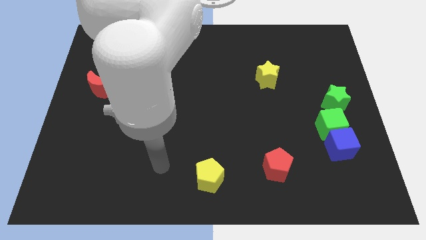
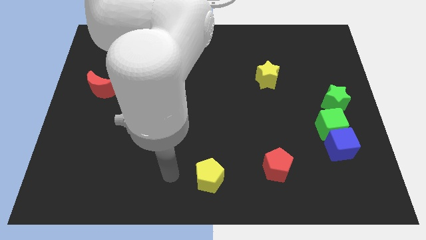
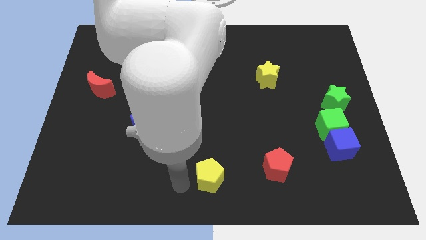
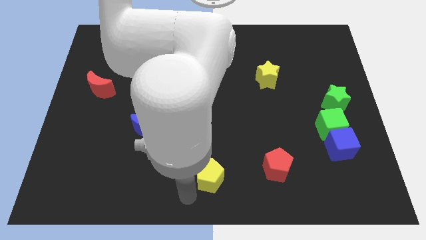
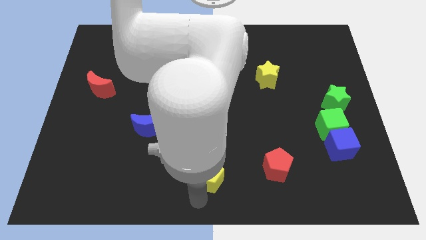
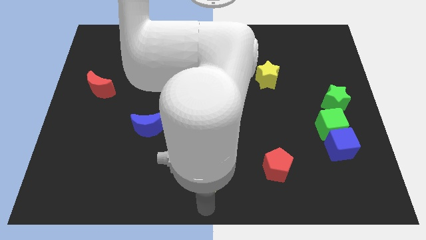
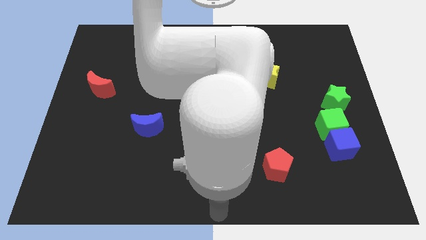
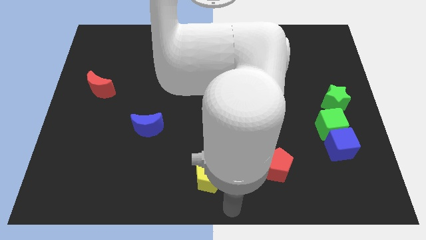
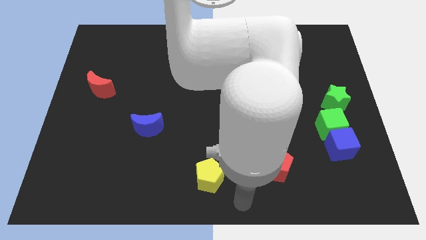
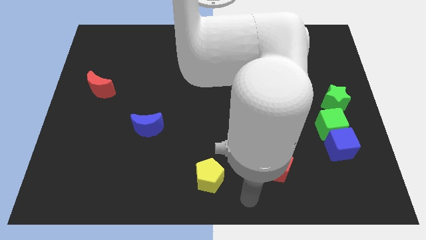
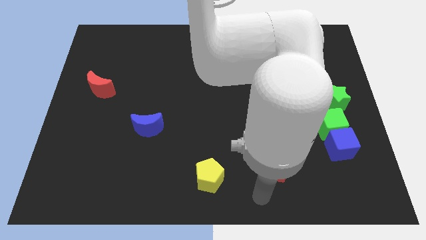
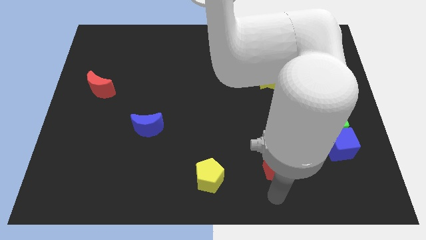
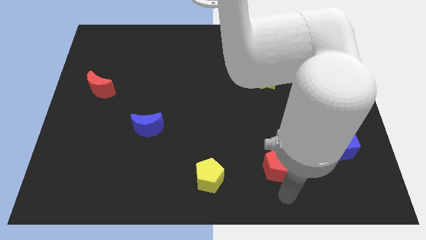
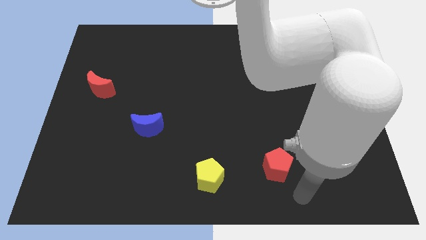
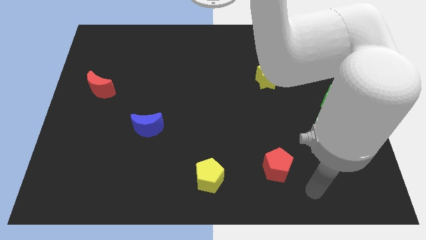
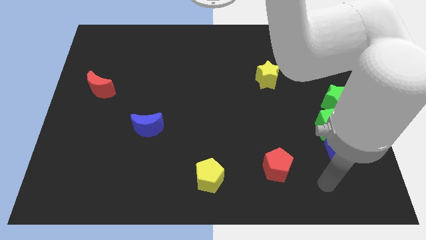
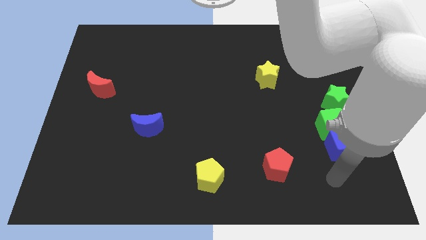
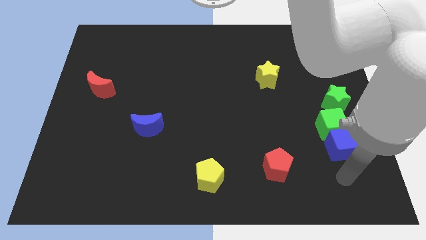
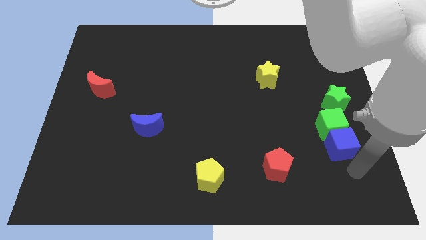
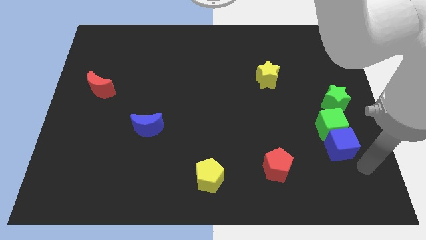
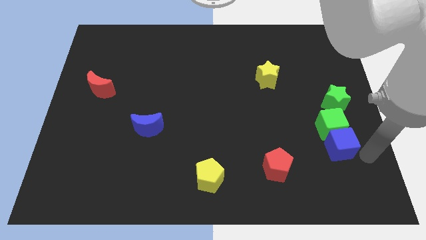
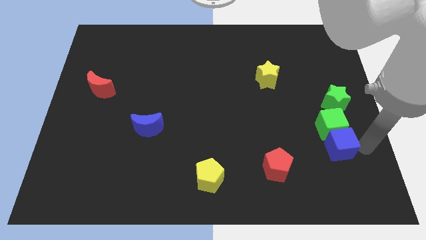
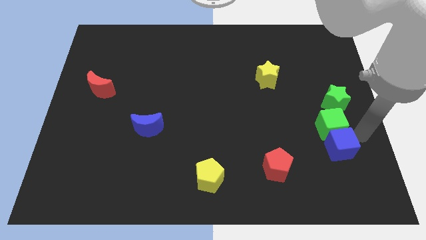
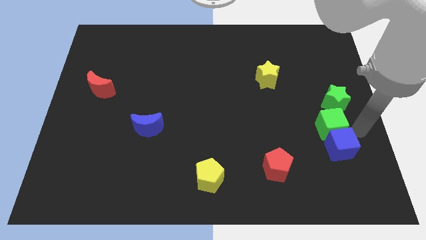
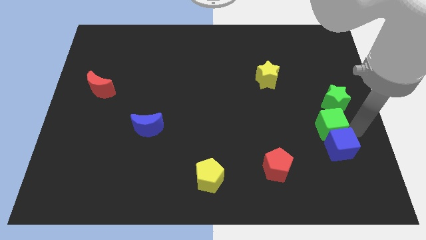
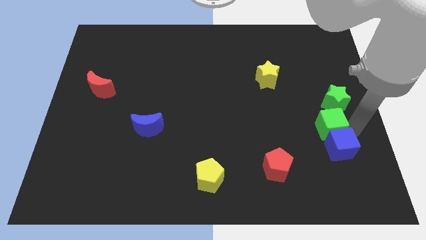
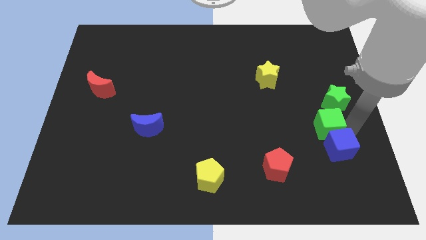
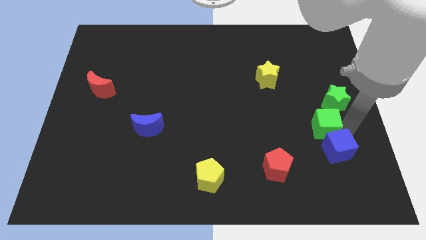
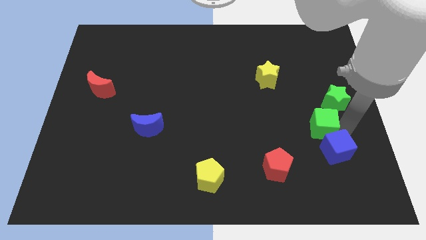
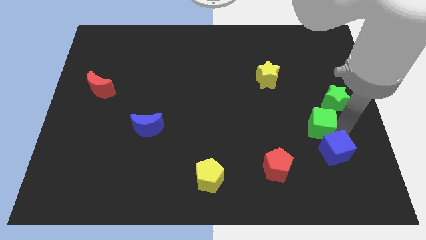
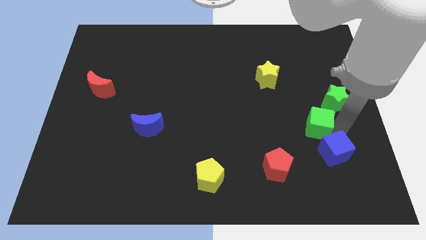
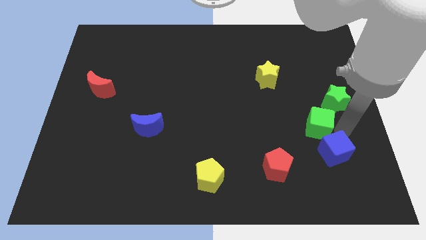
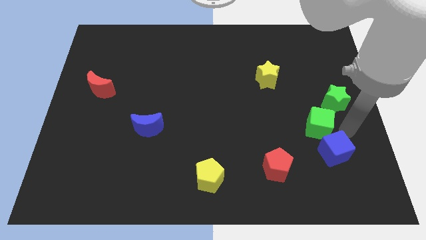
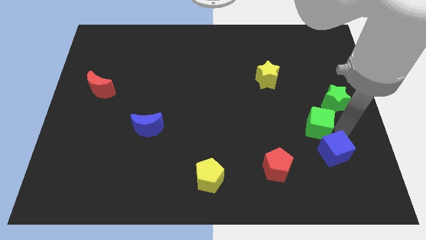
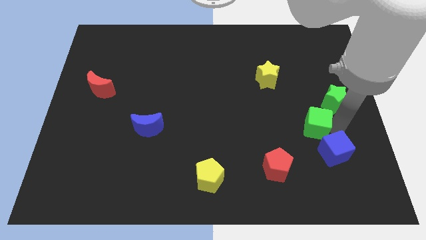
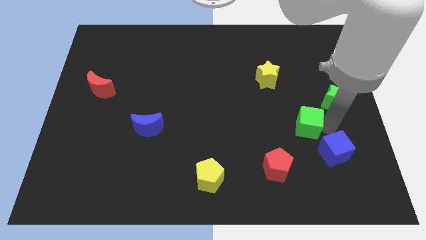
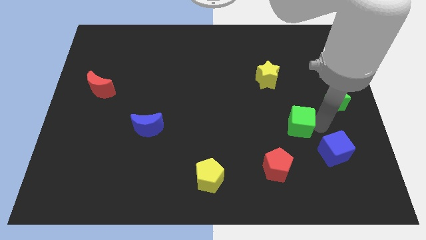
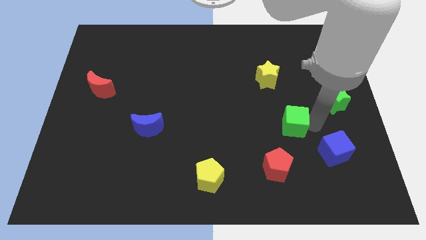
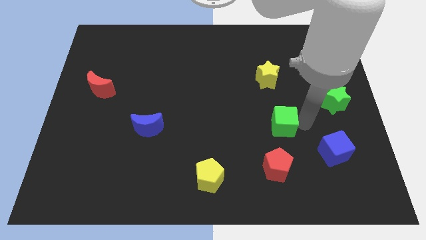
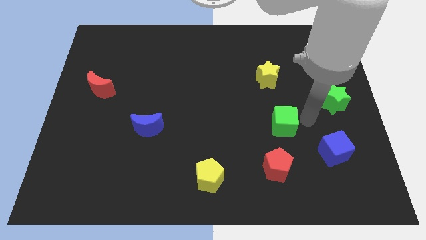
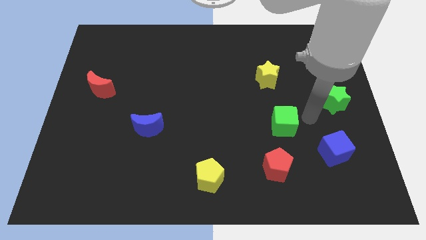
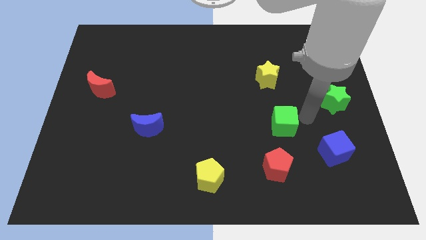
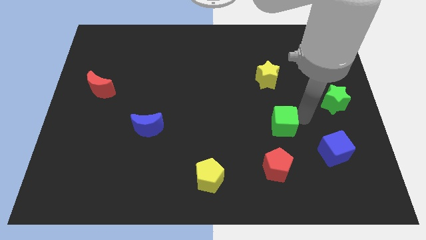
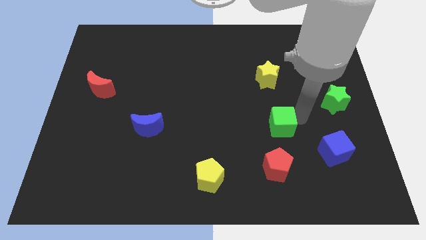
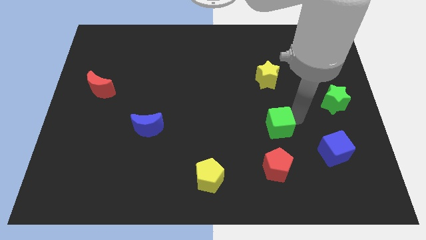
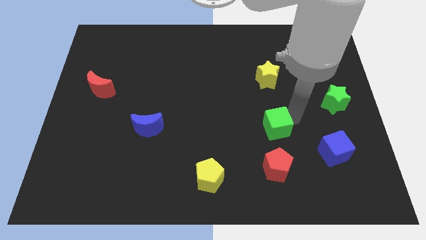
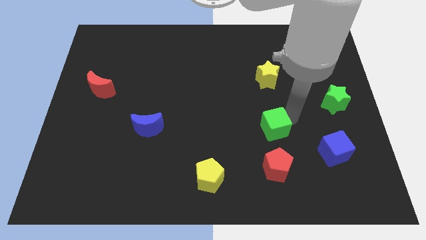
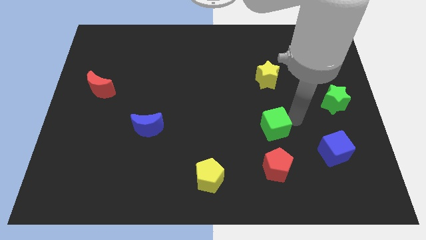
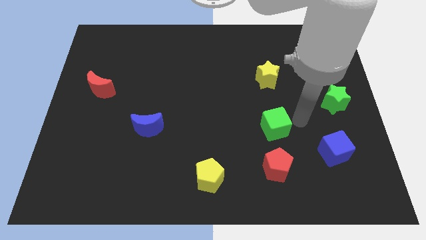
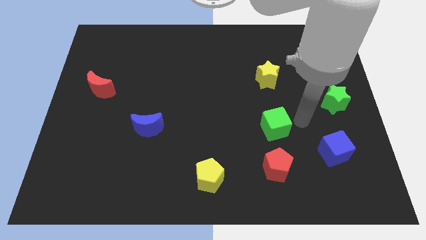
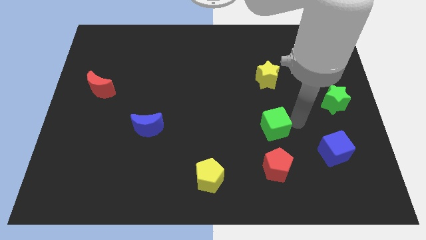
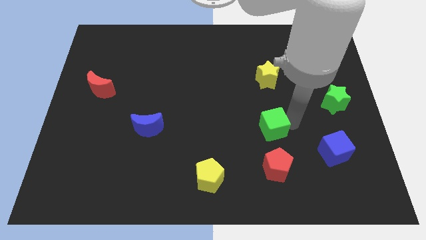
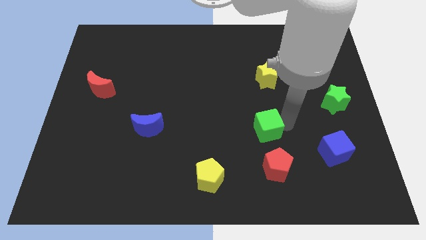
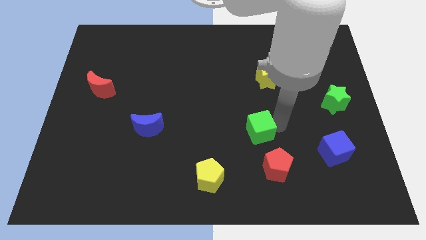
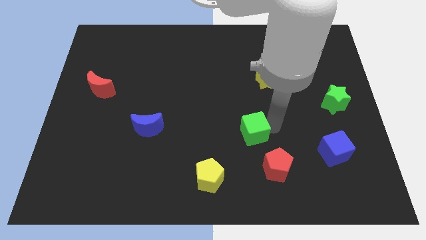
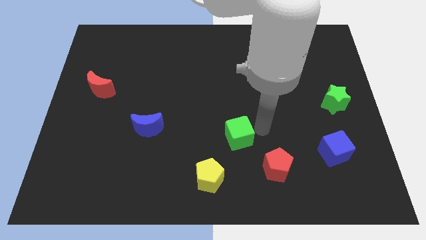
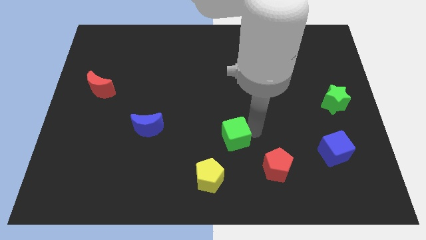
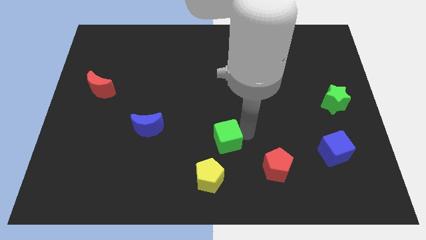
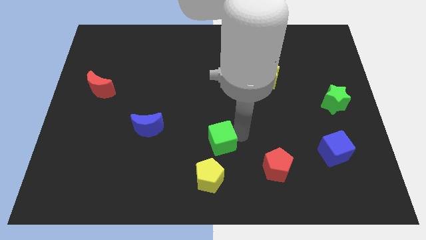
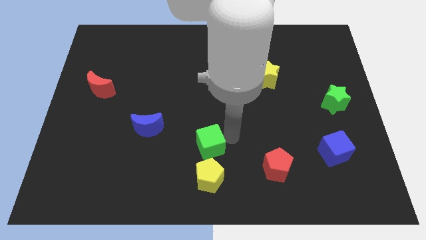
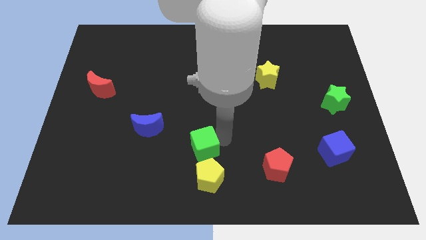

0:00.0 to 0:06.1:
move the green cube diagonally up and to the left of the yellow pentagon

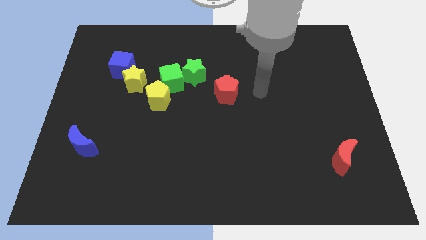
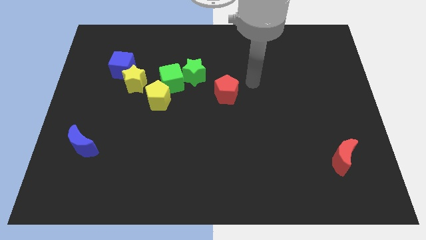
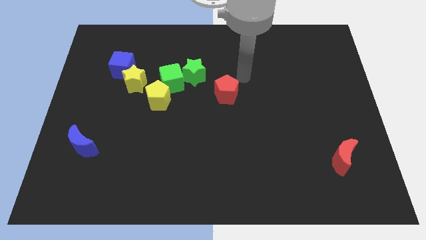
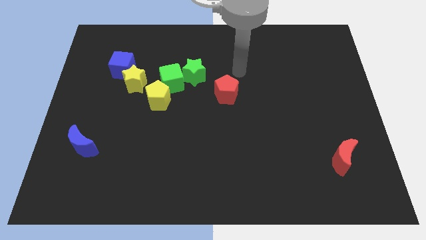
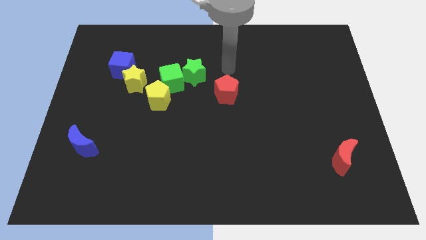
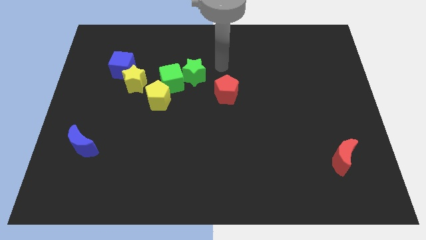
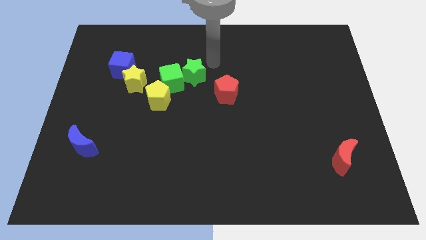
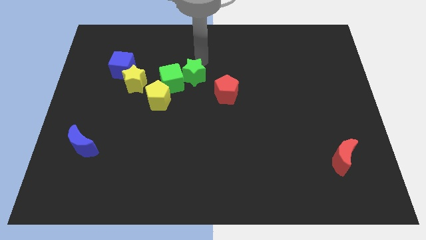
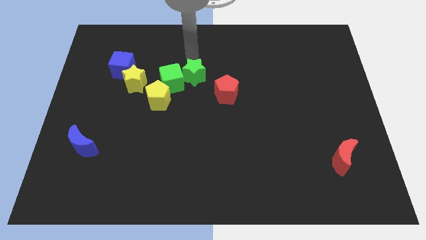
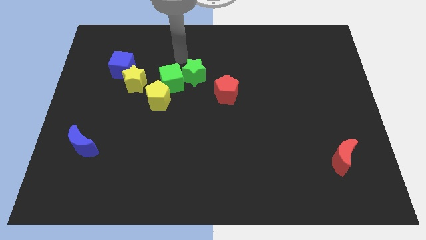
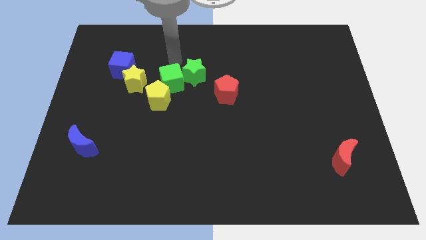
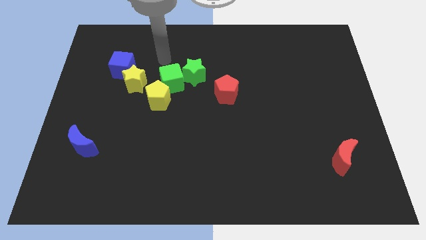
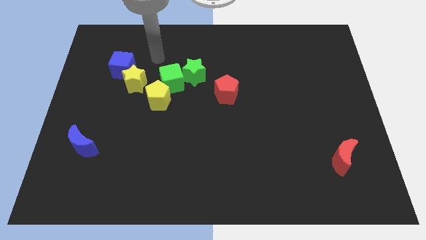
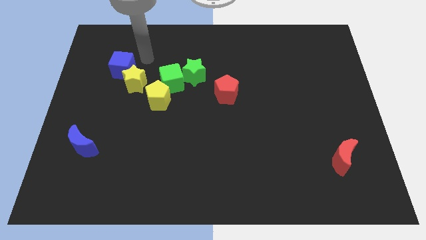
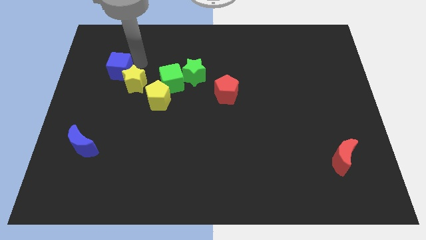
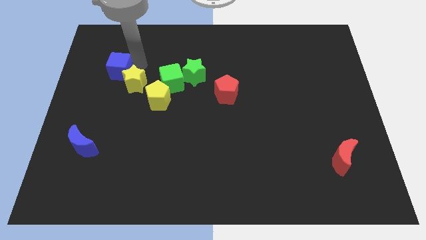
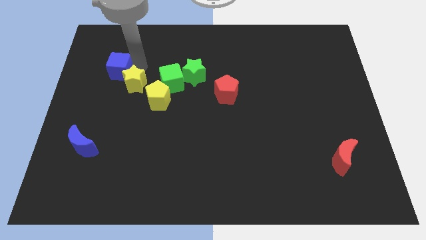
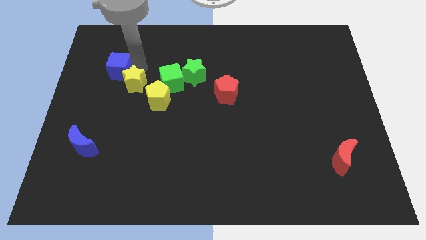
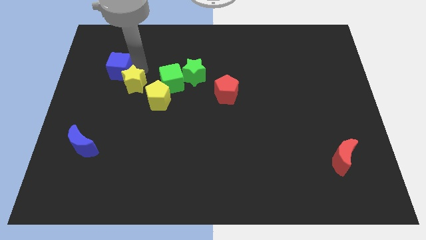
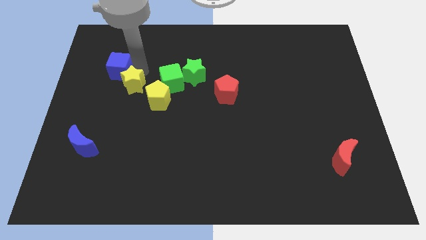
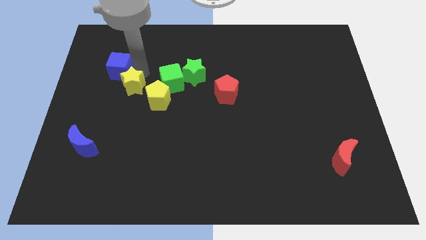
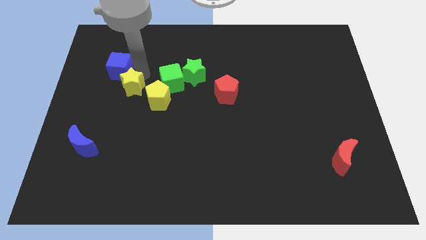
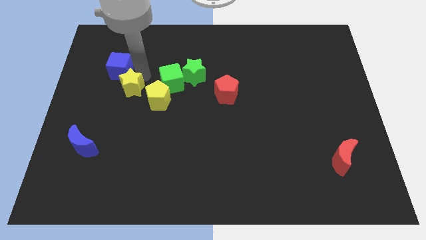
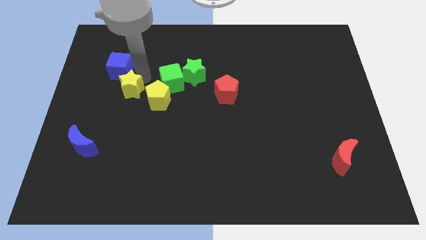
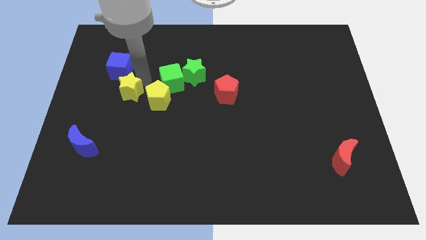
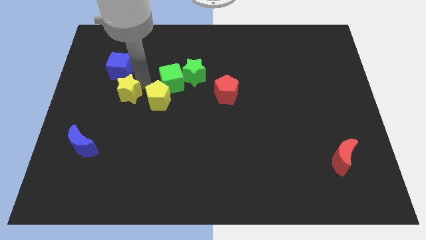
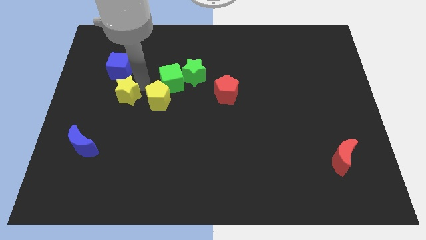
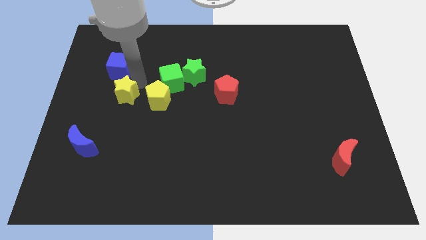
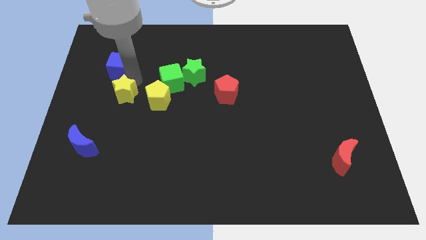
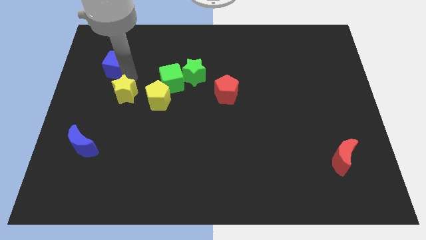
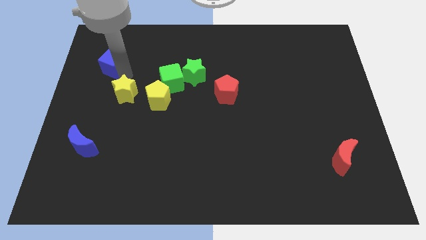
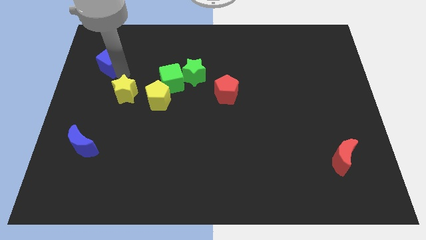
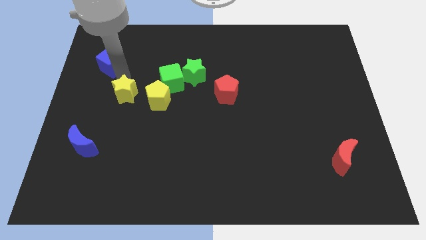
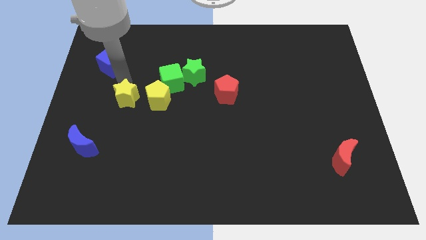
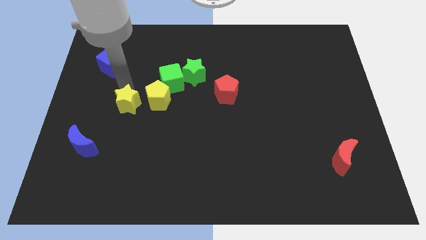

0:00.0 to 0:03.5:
slide the yellow star diagonally down and to the left of the yellow pentagon
